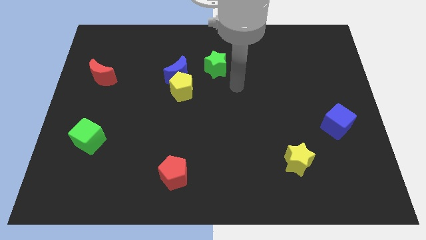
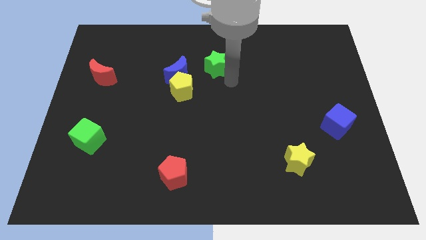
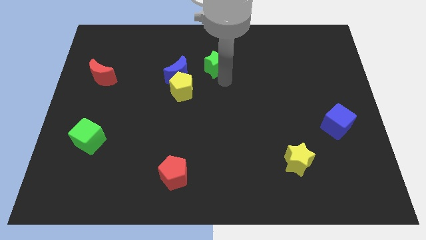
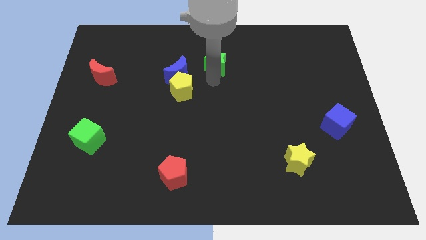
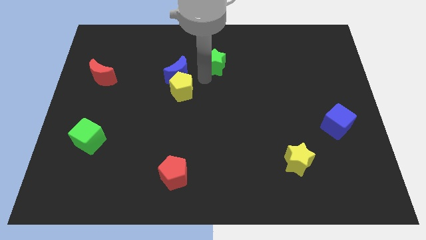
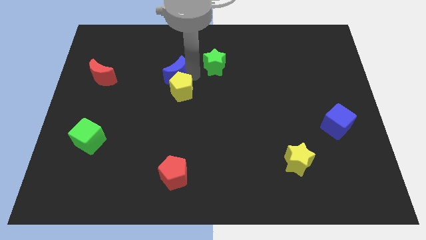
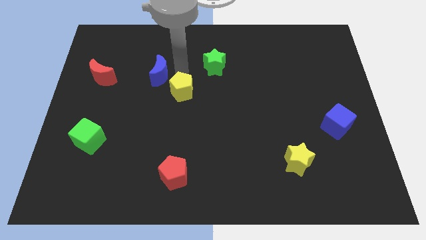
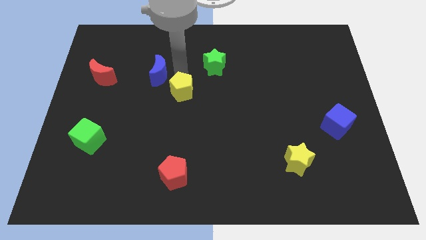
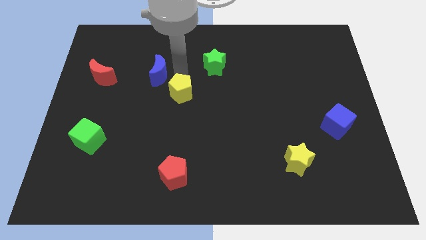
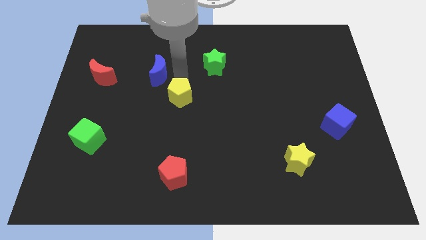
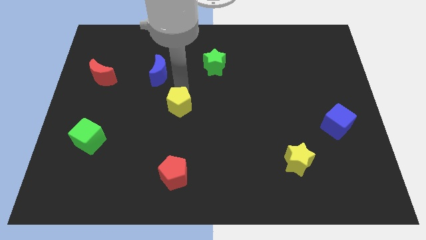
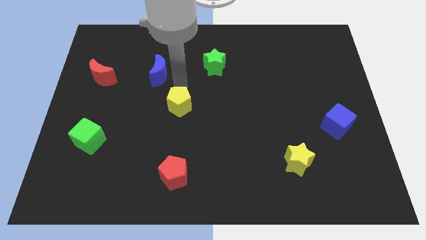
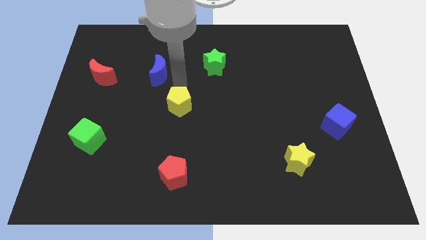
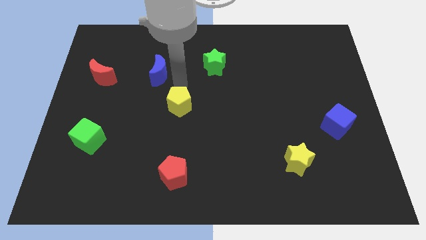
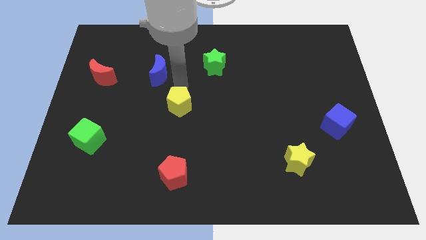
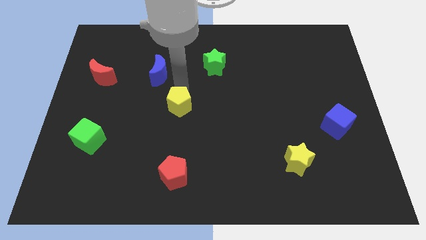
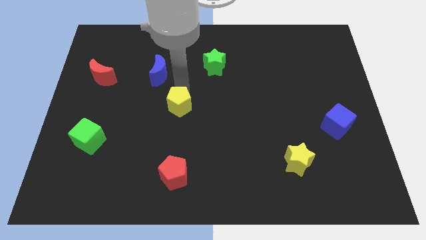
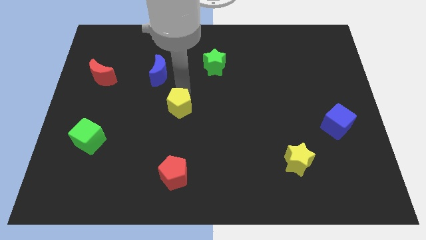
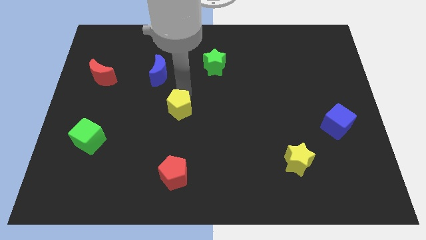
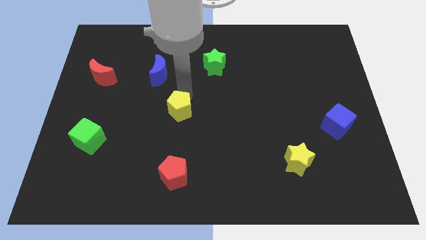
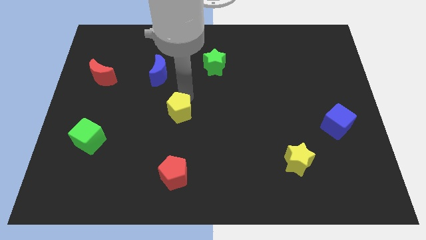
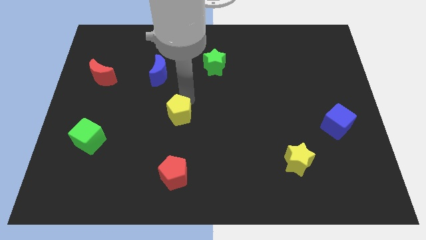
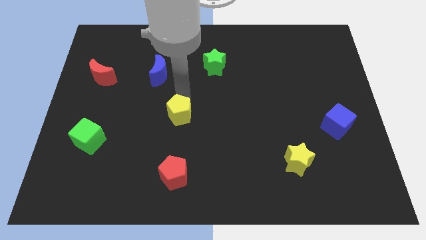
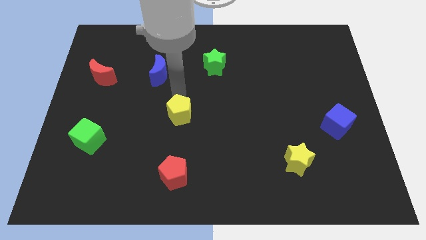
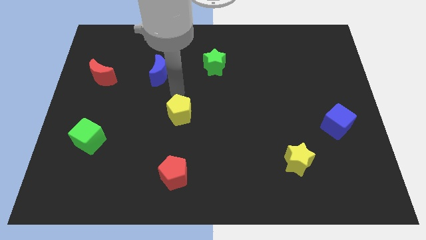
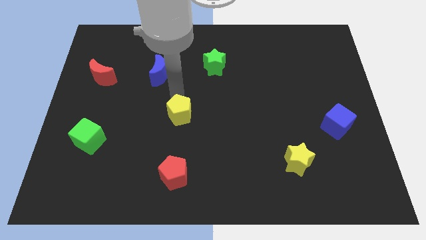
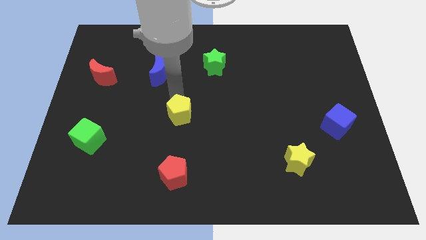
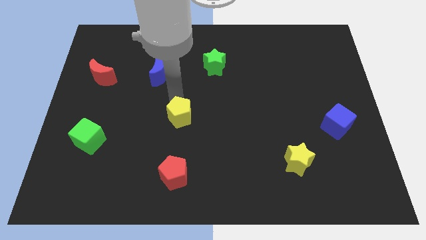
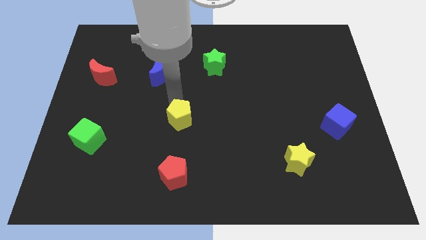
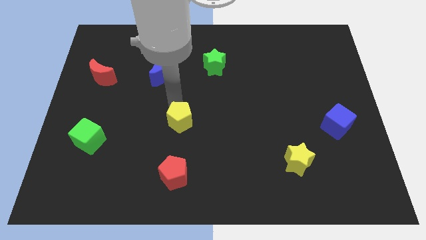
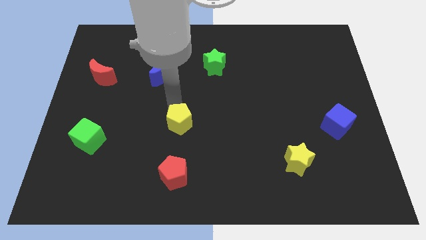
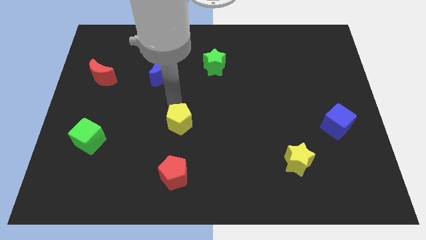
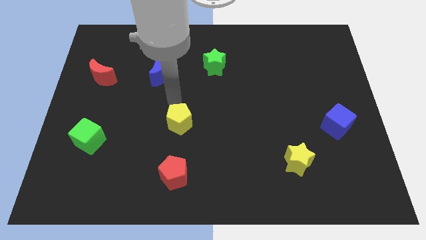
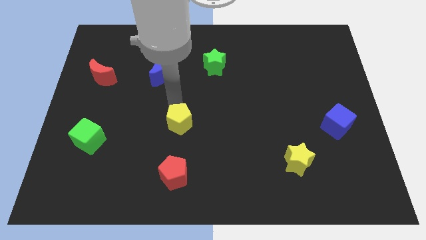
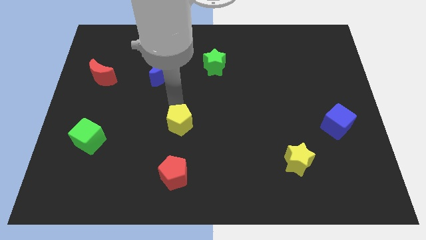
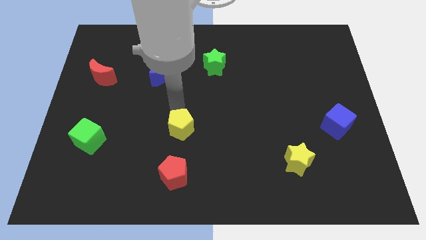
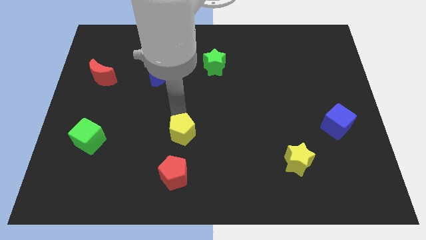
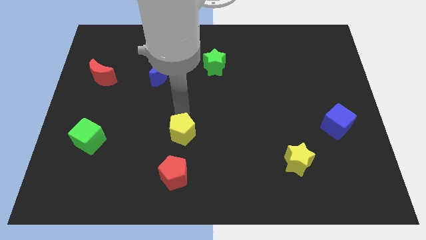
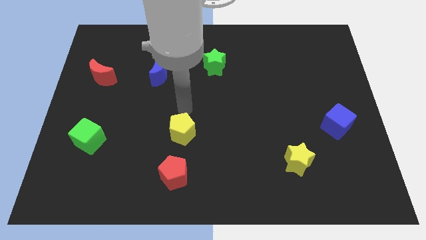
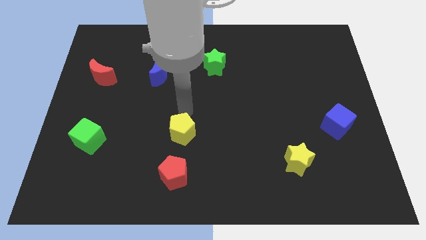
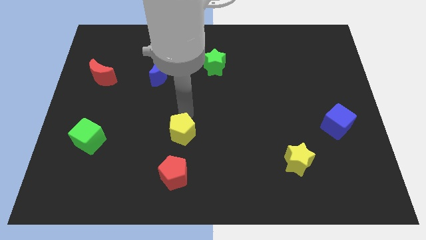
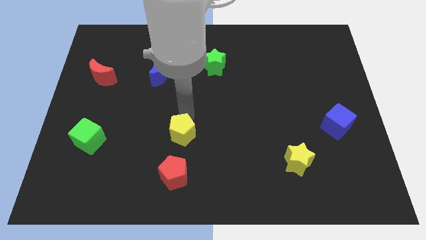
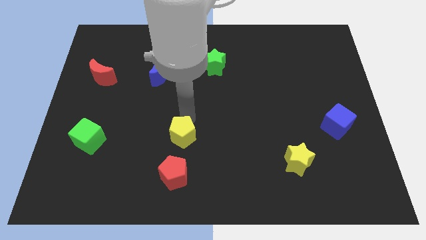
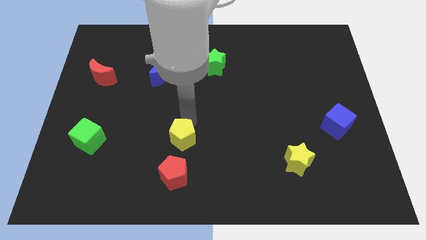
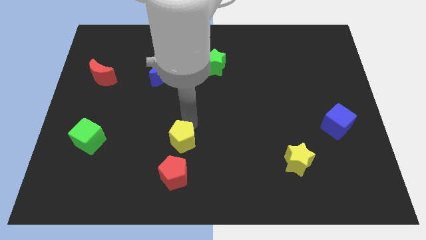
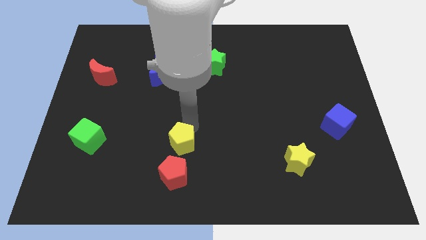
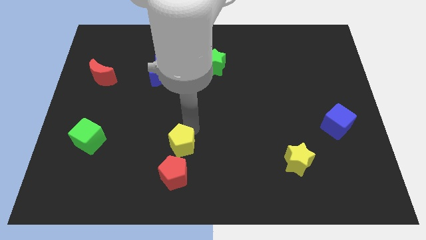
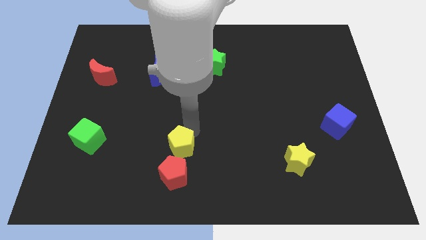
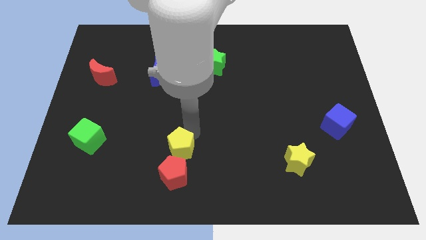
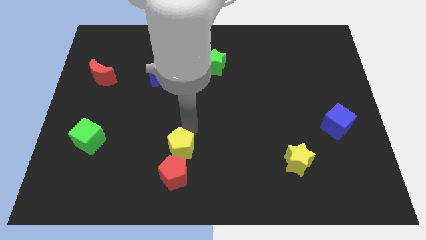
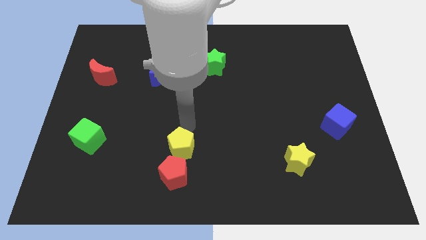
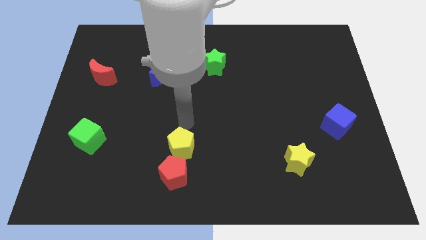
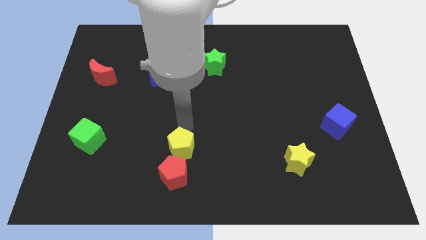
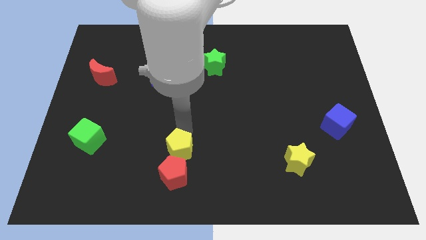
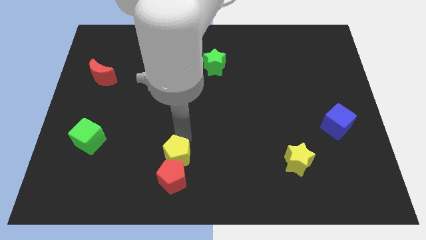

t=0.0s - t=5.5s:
push the yellow pentagon next to the red pentagon

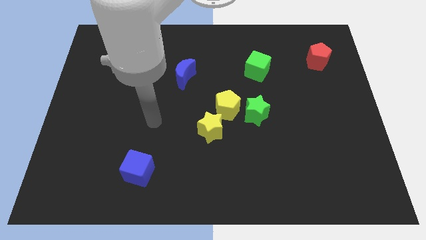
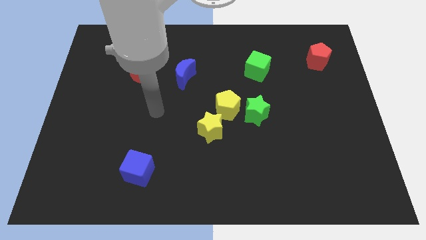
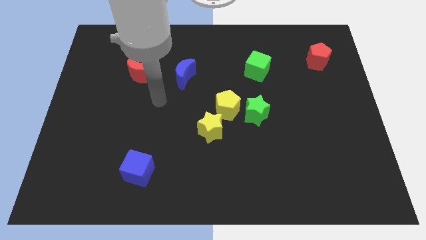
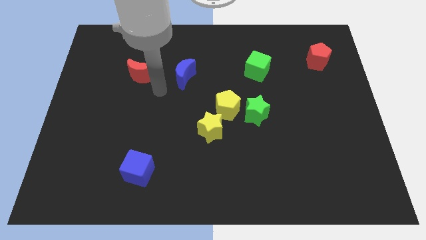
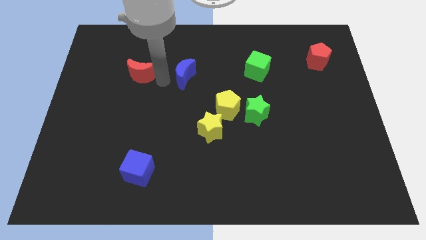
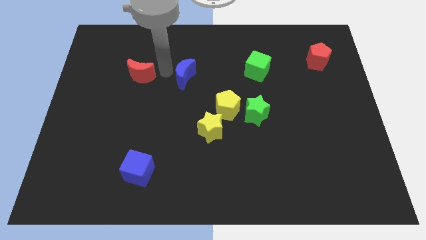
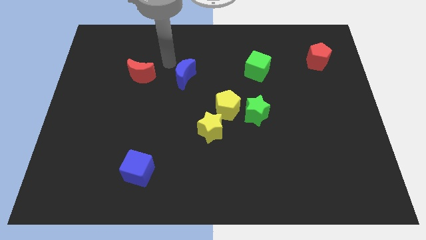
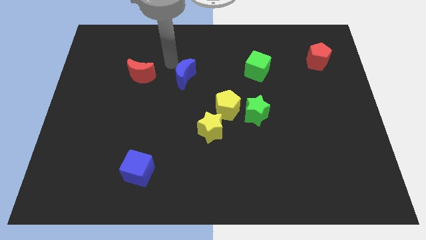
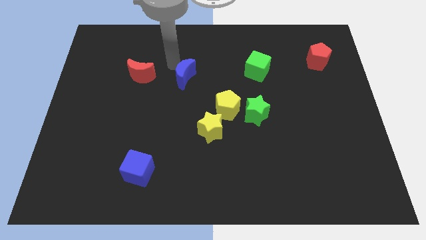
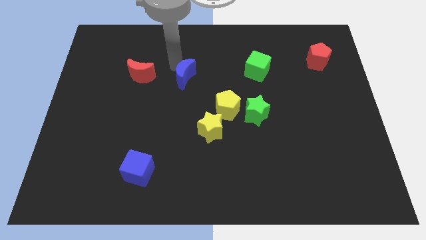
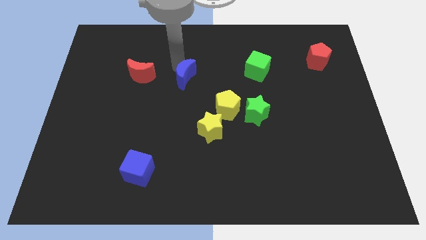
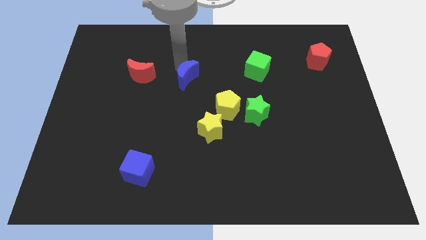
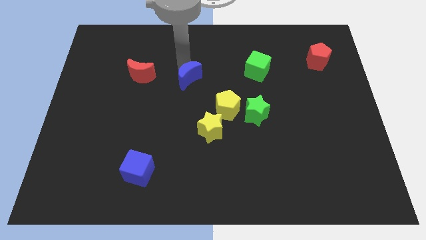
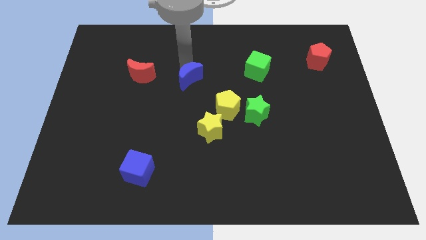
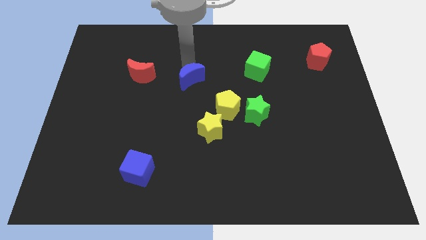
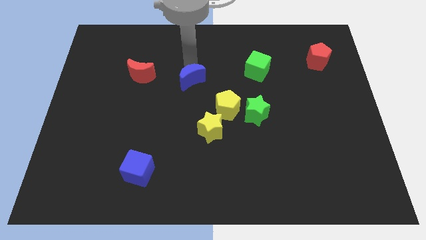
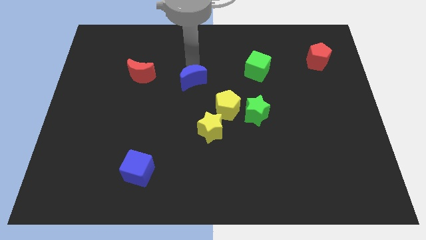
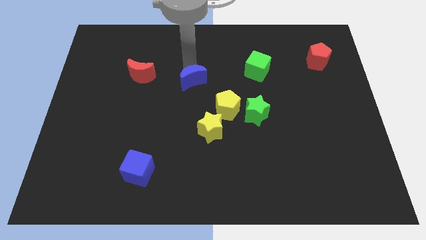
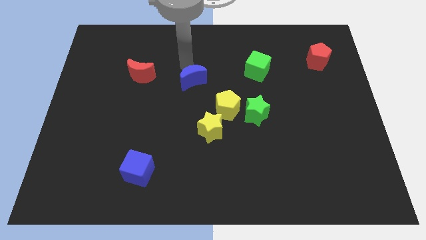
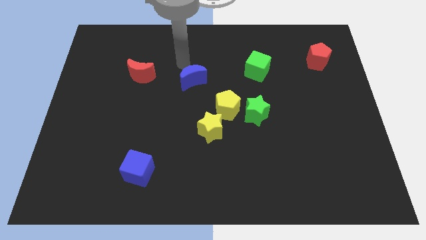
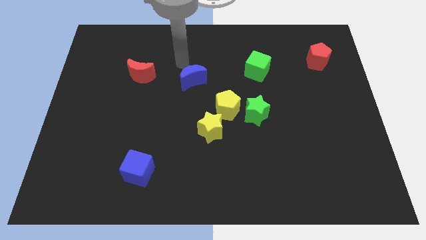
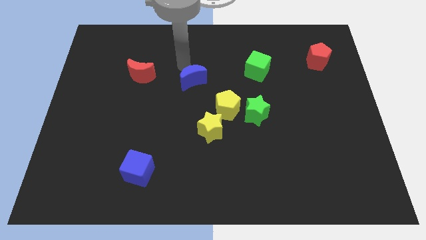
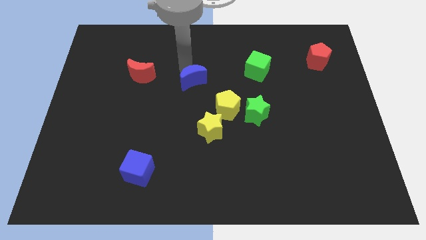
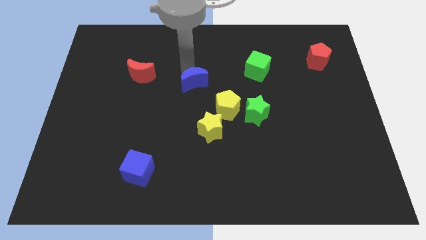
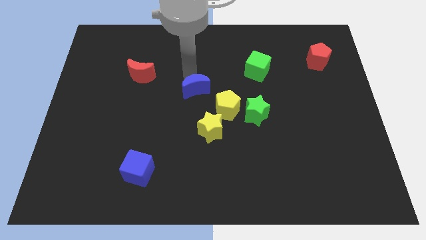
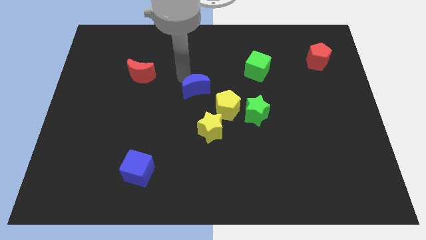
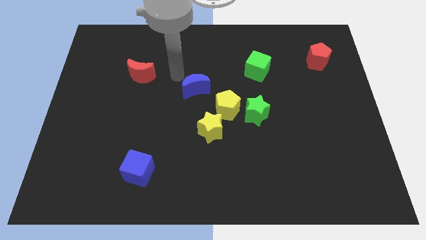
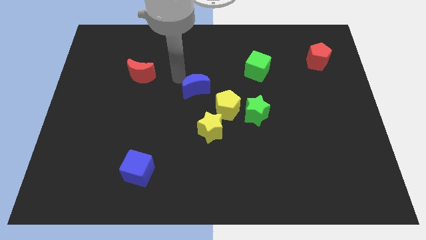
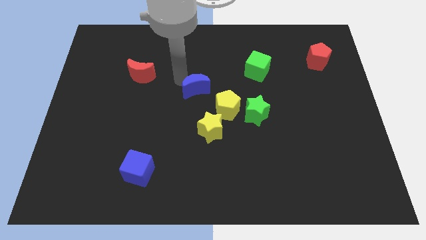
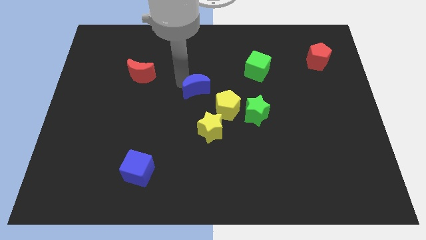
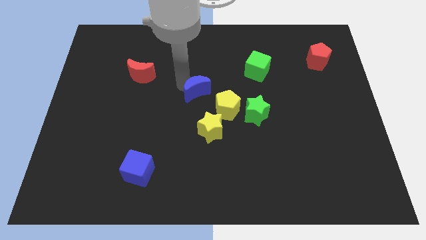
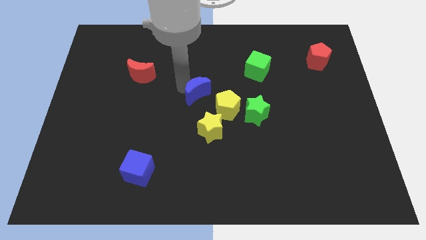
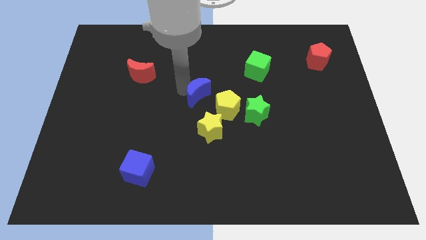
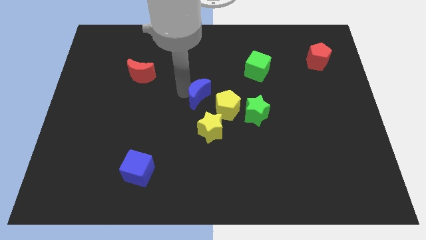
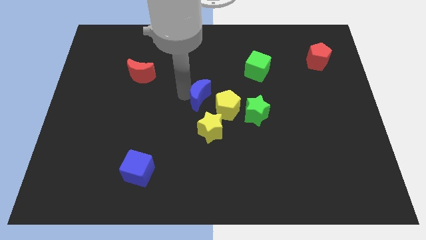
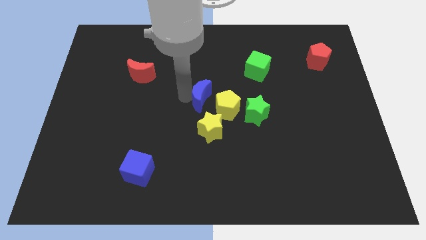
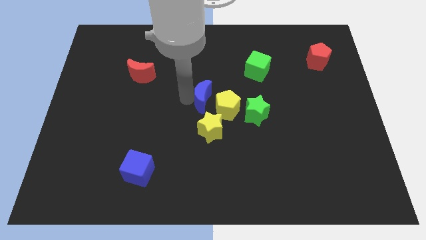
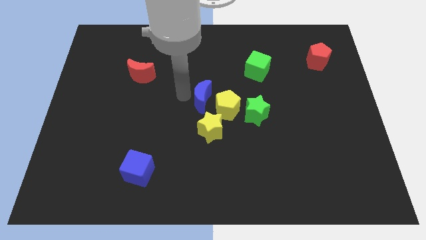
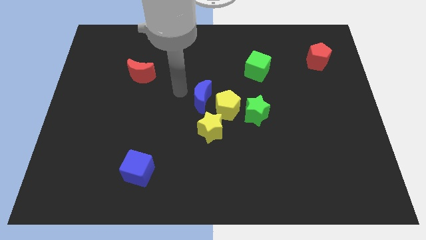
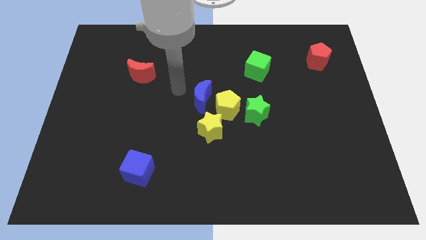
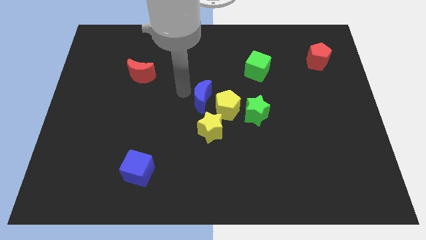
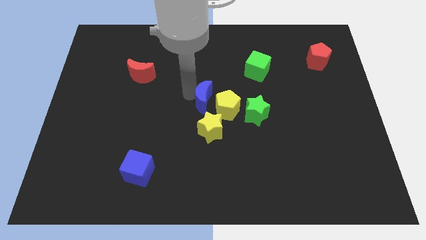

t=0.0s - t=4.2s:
push the blue moon close to the yellow pentagon
